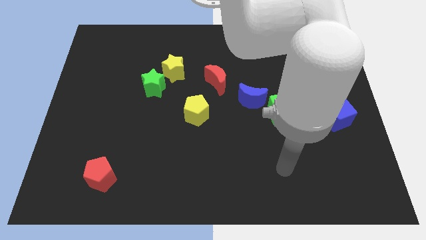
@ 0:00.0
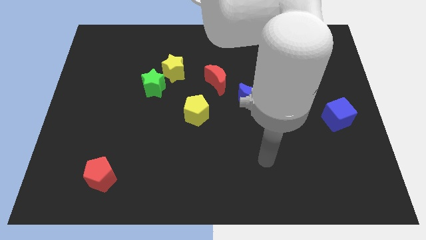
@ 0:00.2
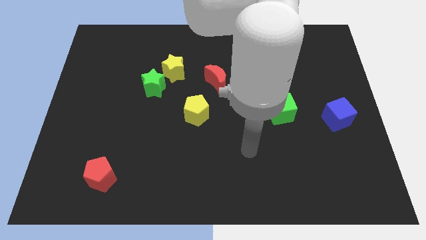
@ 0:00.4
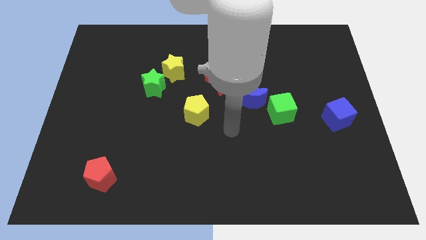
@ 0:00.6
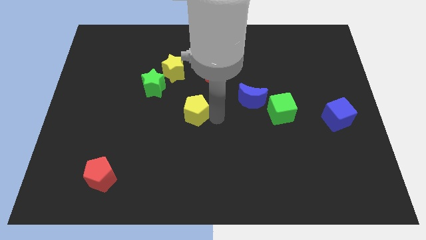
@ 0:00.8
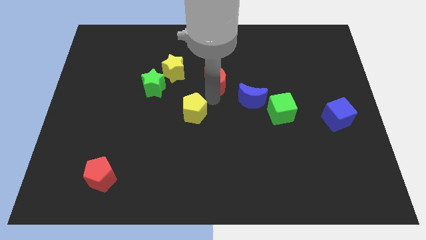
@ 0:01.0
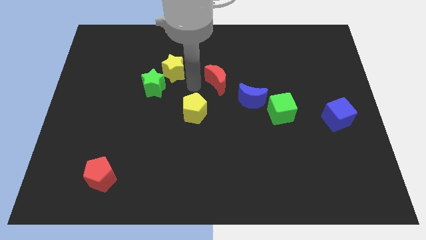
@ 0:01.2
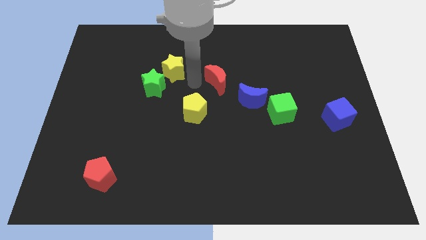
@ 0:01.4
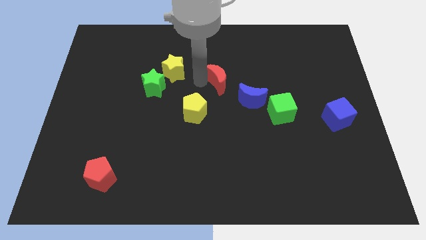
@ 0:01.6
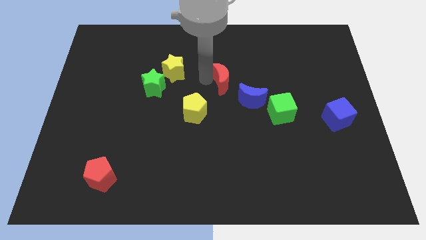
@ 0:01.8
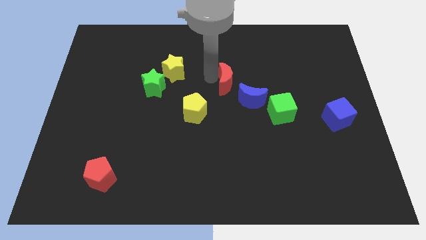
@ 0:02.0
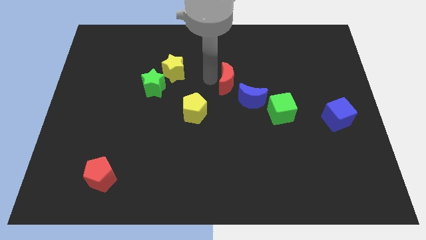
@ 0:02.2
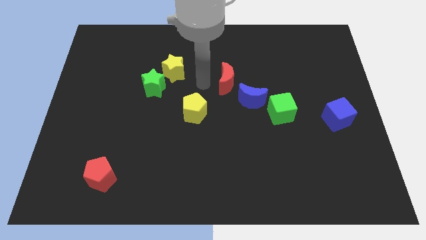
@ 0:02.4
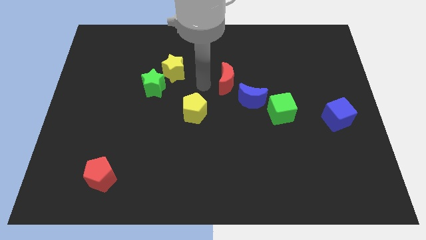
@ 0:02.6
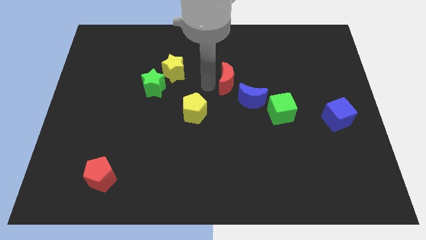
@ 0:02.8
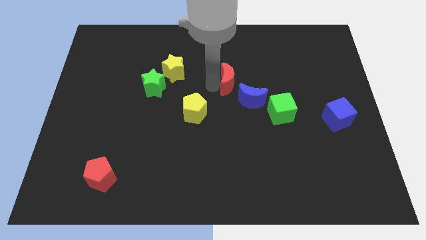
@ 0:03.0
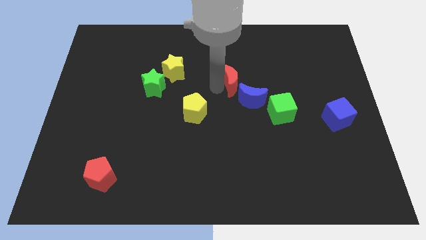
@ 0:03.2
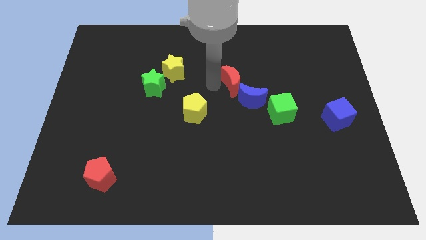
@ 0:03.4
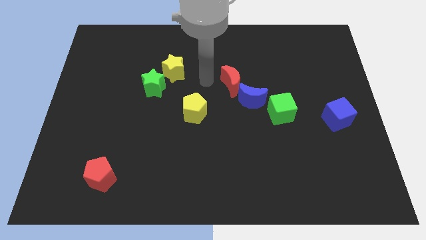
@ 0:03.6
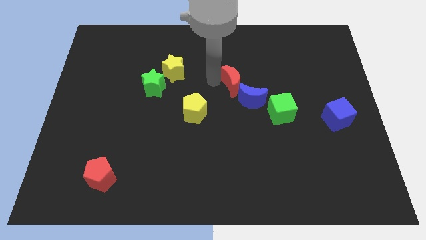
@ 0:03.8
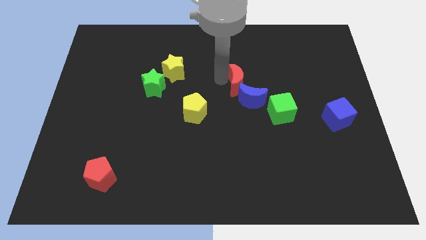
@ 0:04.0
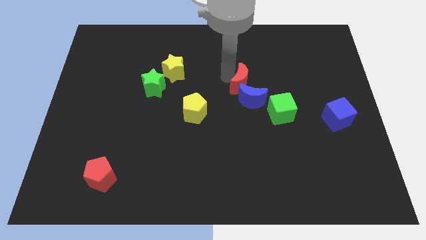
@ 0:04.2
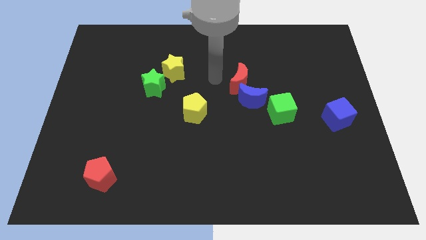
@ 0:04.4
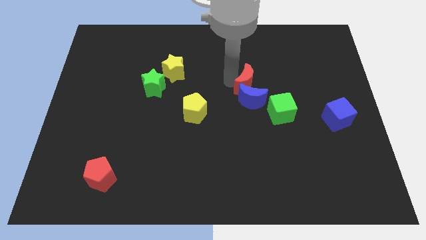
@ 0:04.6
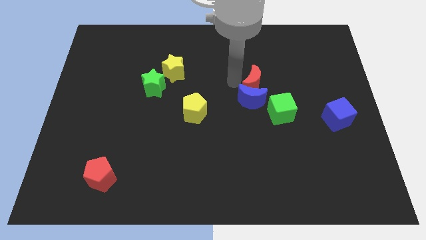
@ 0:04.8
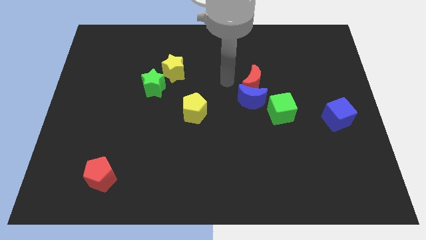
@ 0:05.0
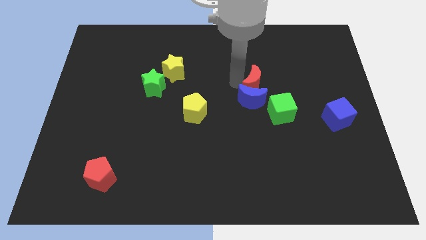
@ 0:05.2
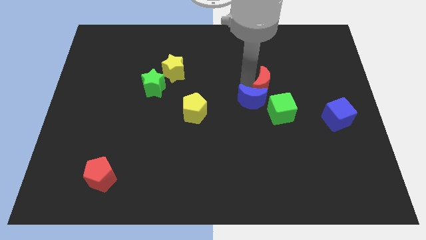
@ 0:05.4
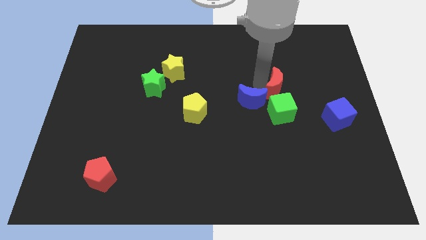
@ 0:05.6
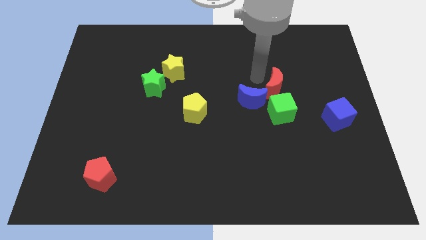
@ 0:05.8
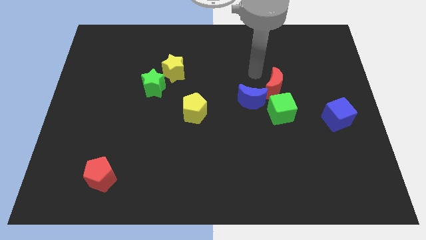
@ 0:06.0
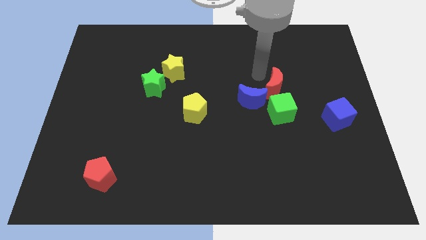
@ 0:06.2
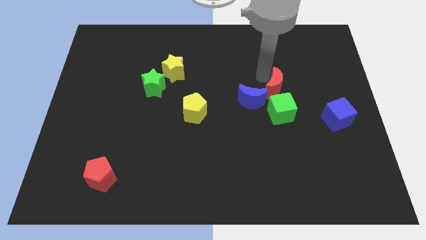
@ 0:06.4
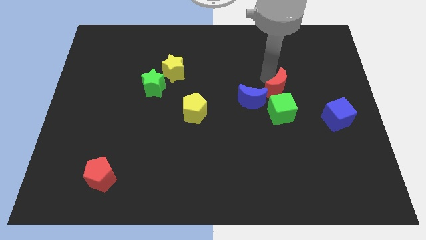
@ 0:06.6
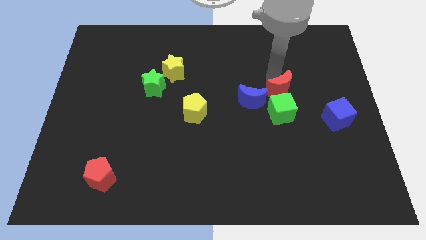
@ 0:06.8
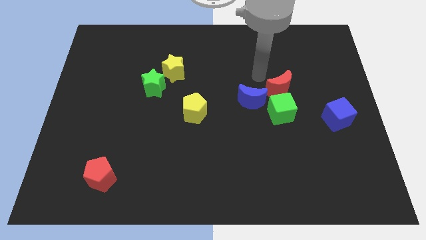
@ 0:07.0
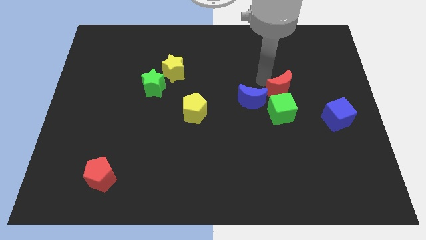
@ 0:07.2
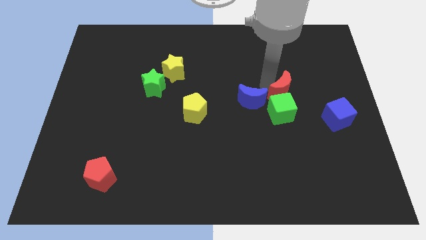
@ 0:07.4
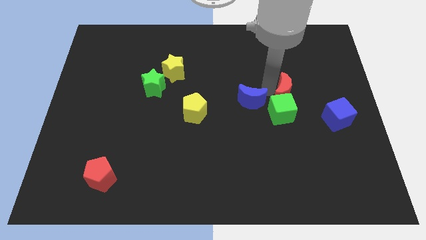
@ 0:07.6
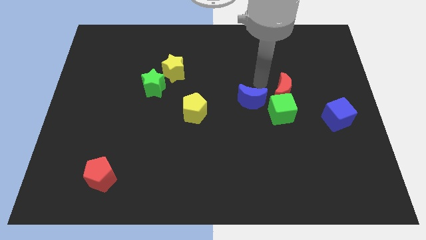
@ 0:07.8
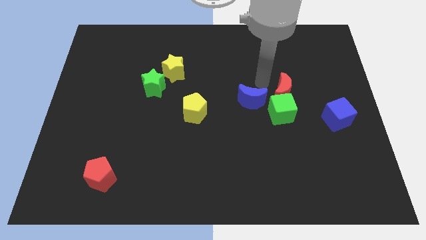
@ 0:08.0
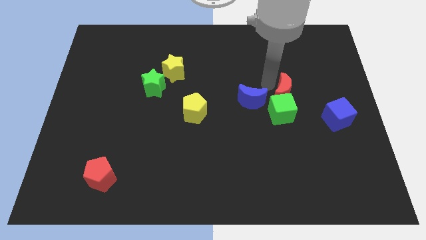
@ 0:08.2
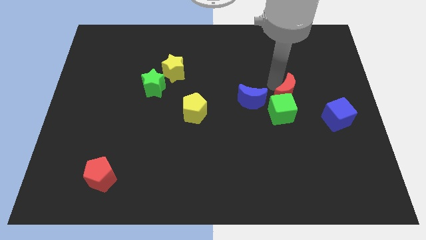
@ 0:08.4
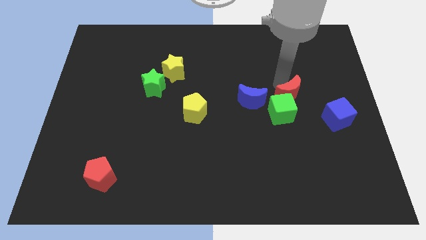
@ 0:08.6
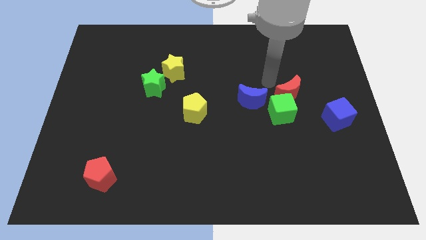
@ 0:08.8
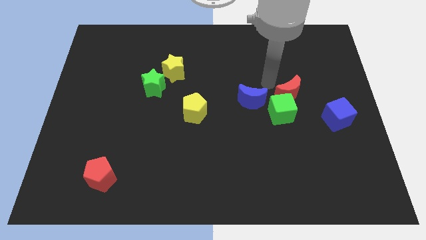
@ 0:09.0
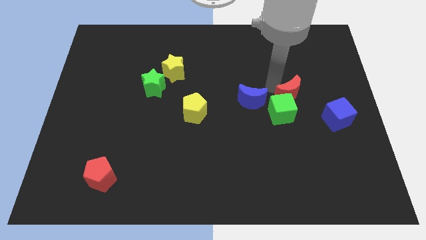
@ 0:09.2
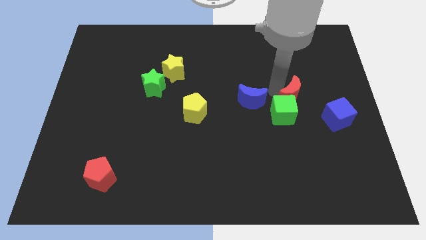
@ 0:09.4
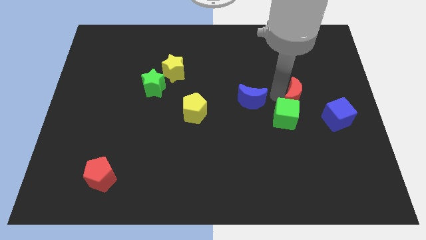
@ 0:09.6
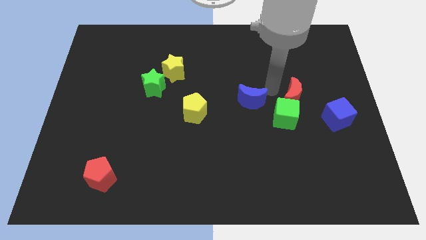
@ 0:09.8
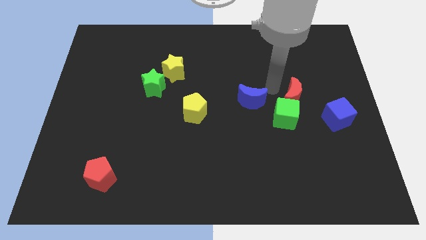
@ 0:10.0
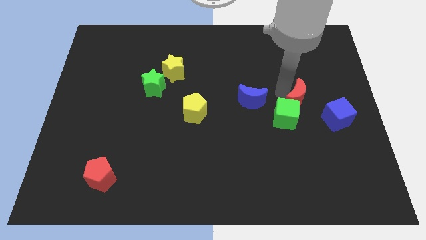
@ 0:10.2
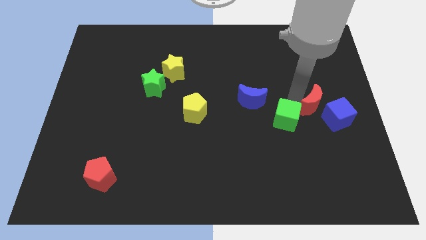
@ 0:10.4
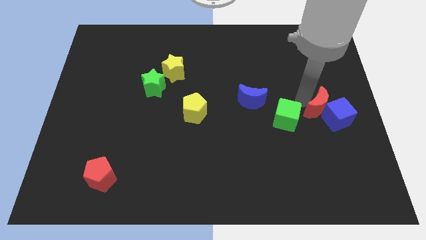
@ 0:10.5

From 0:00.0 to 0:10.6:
put the red moon next to the blue cube

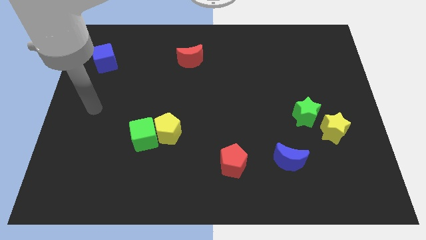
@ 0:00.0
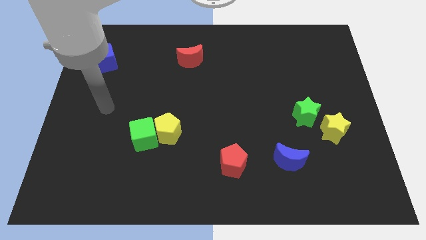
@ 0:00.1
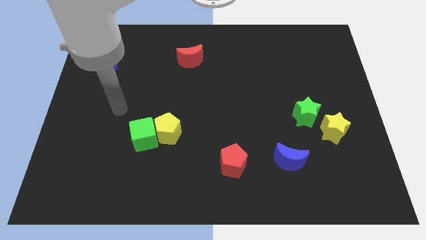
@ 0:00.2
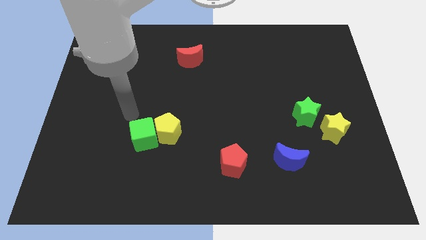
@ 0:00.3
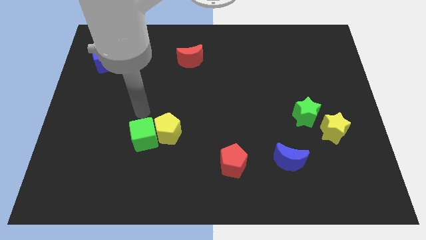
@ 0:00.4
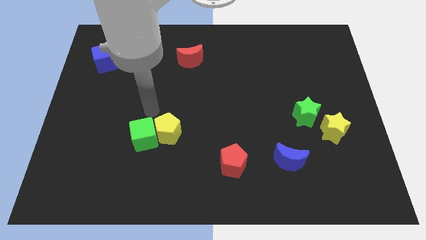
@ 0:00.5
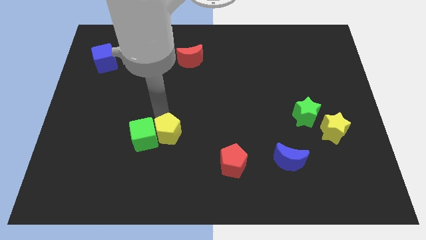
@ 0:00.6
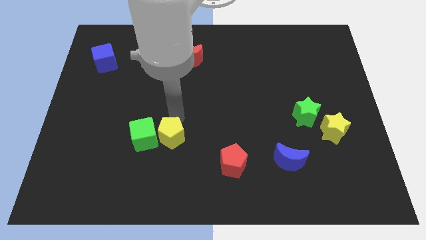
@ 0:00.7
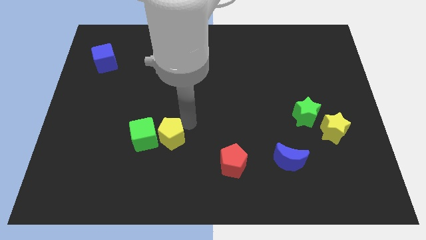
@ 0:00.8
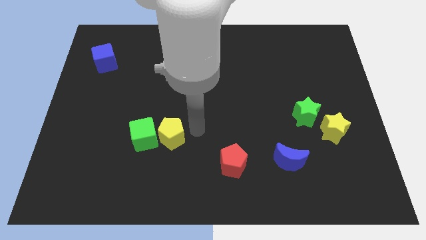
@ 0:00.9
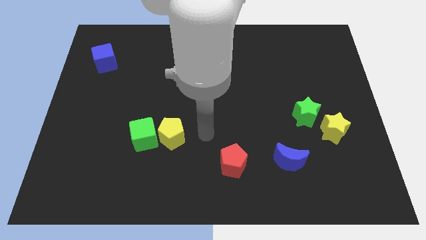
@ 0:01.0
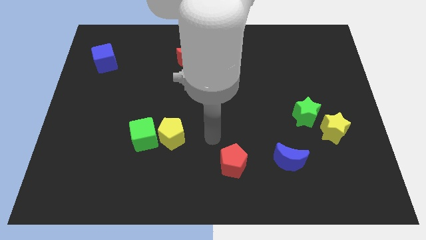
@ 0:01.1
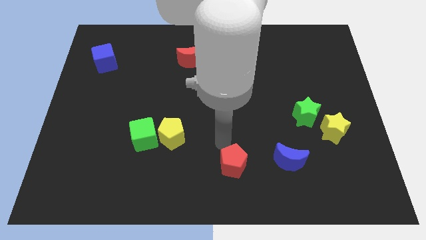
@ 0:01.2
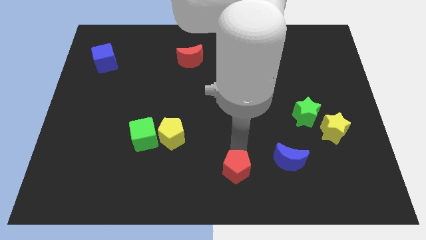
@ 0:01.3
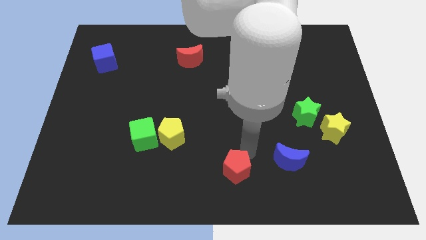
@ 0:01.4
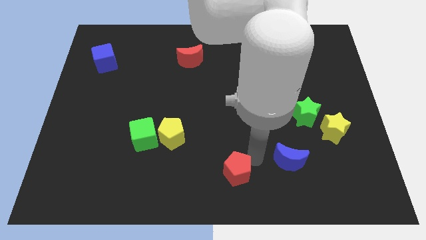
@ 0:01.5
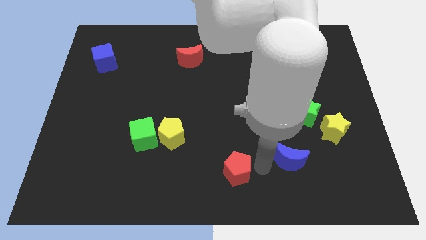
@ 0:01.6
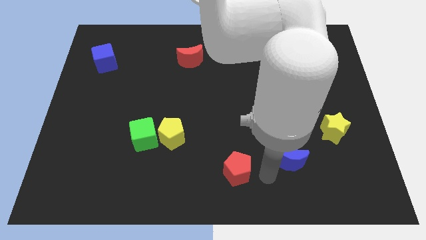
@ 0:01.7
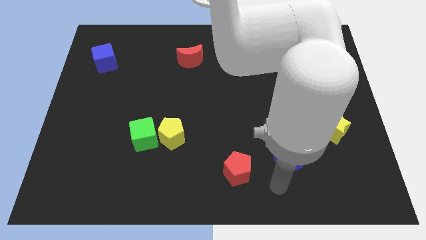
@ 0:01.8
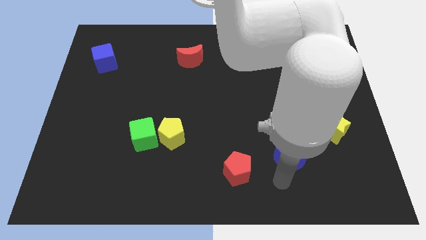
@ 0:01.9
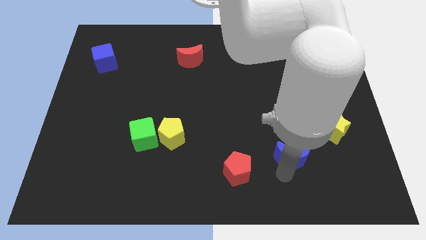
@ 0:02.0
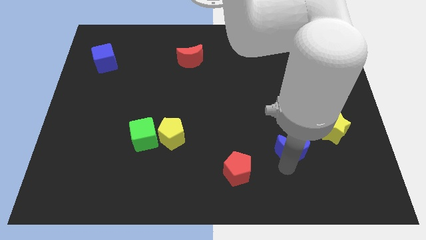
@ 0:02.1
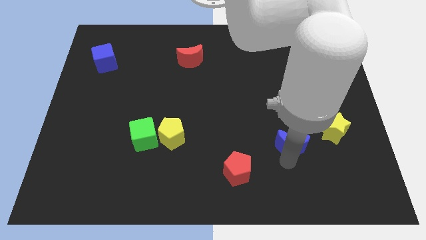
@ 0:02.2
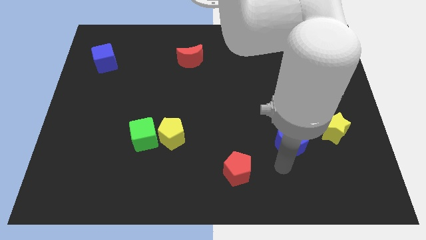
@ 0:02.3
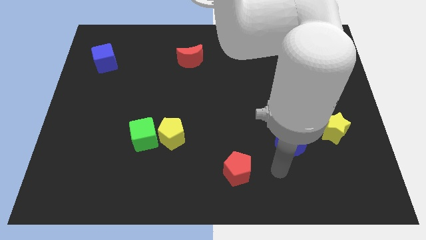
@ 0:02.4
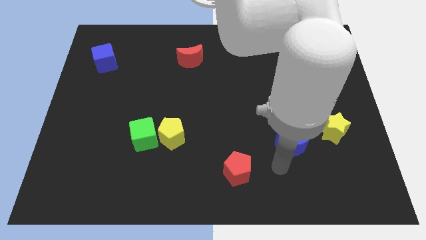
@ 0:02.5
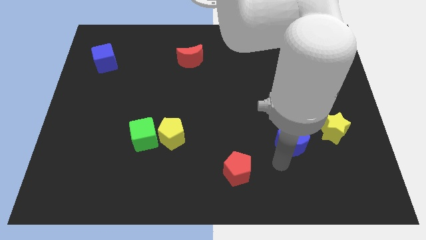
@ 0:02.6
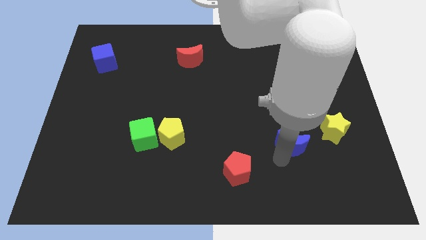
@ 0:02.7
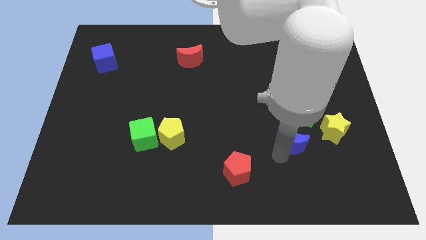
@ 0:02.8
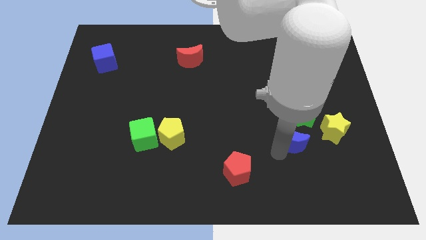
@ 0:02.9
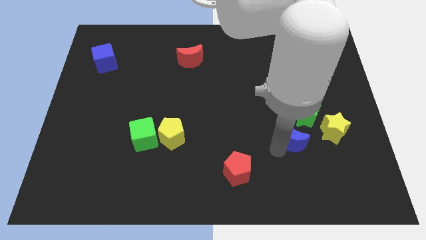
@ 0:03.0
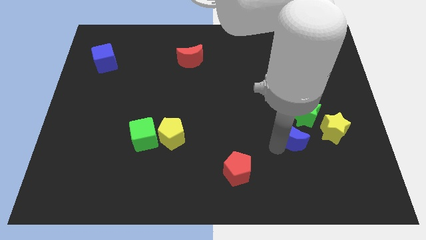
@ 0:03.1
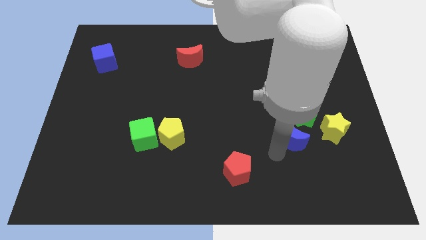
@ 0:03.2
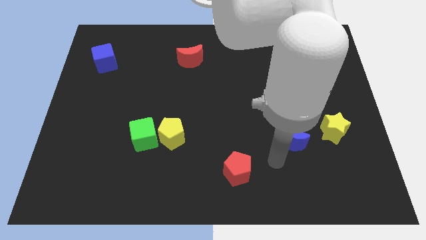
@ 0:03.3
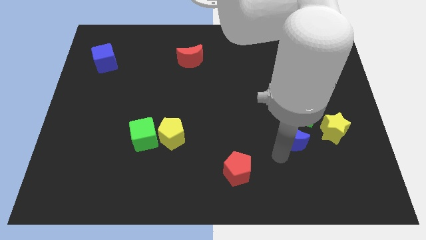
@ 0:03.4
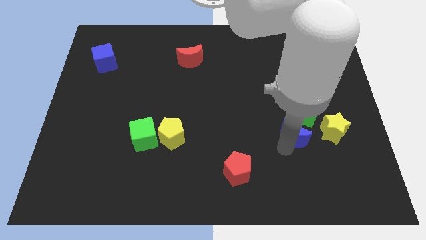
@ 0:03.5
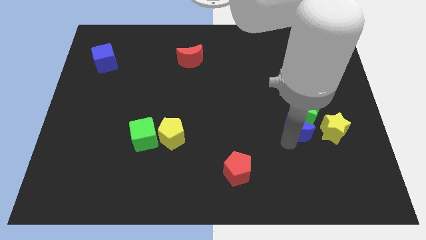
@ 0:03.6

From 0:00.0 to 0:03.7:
push the blue moon to the green star
